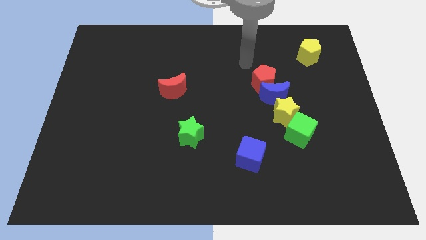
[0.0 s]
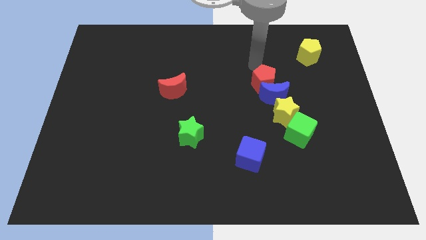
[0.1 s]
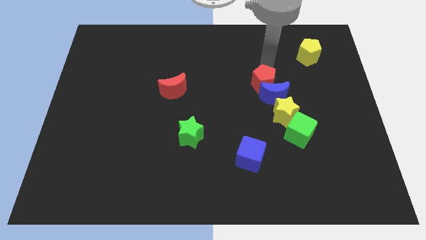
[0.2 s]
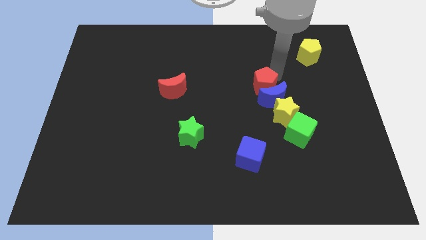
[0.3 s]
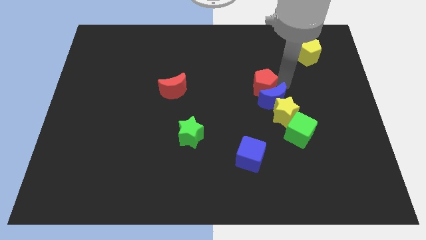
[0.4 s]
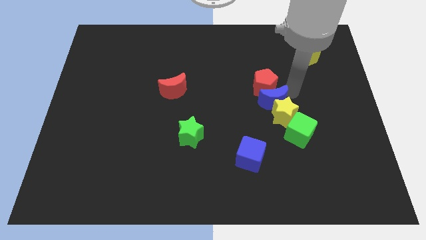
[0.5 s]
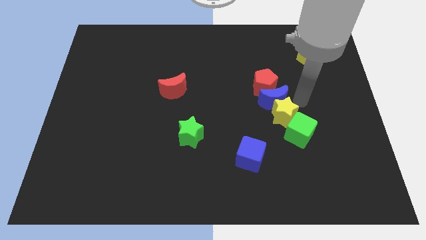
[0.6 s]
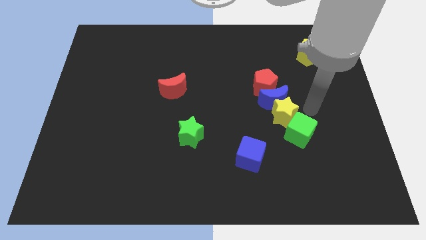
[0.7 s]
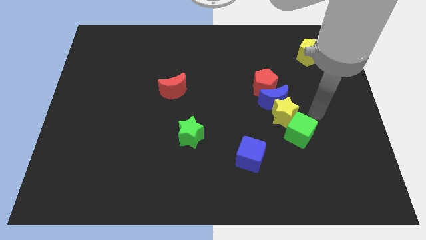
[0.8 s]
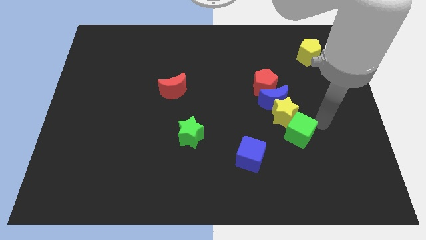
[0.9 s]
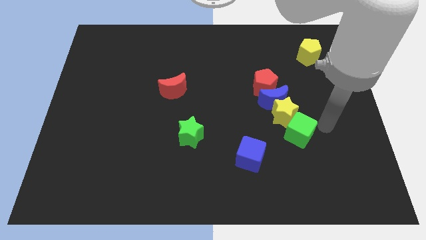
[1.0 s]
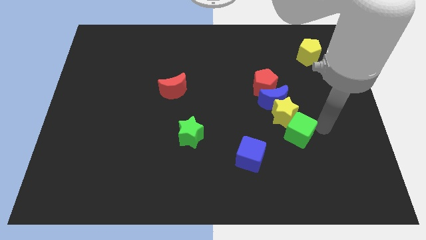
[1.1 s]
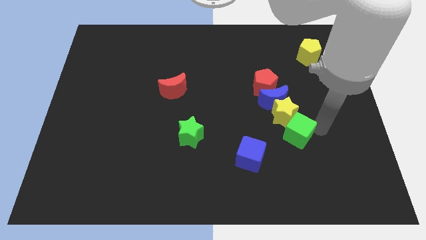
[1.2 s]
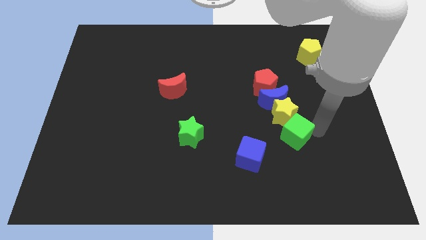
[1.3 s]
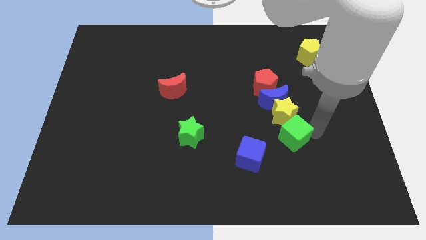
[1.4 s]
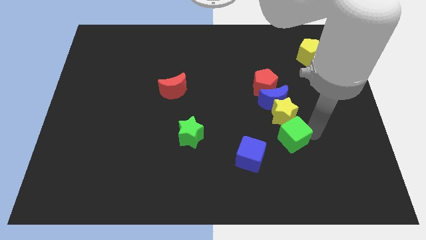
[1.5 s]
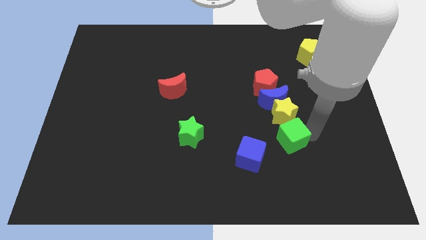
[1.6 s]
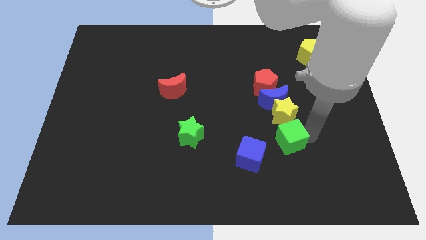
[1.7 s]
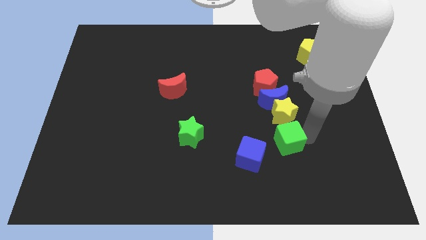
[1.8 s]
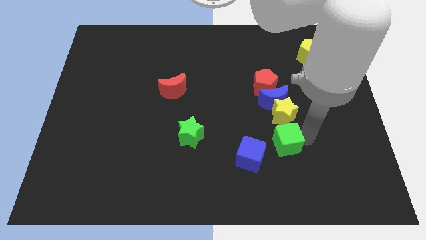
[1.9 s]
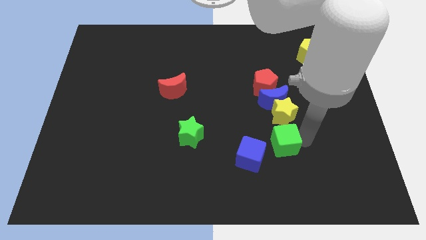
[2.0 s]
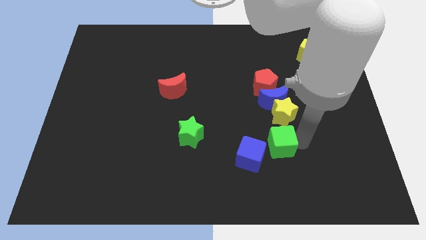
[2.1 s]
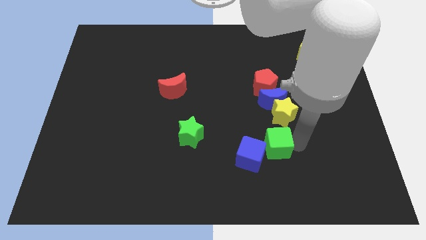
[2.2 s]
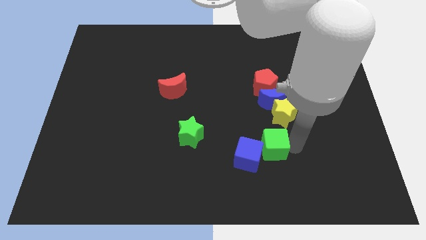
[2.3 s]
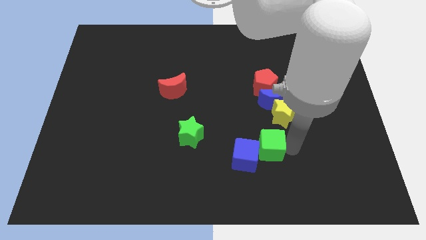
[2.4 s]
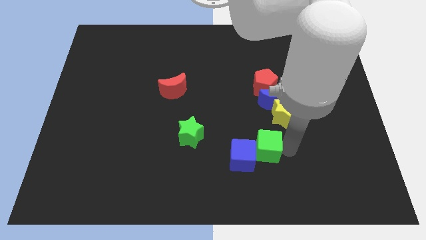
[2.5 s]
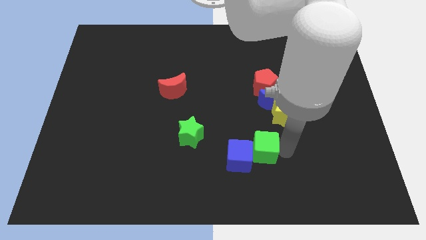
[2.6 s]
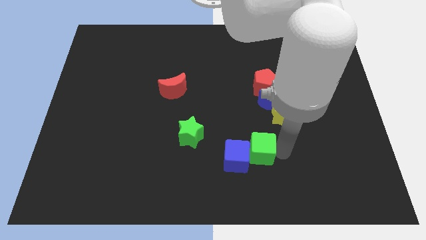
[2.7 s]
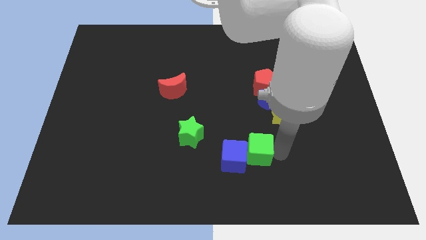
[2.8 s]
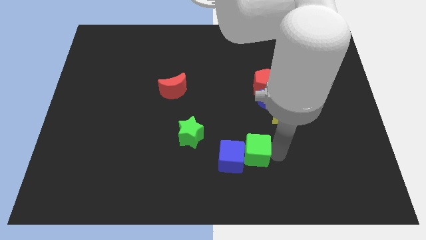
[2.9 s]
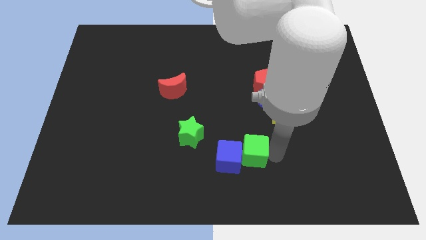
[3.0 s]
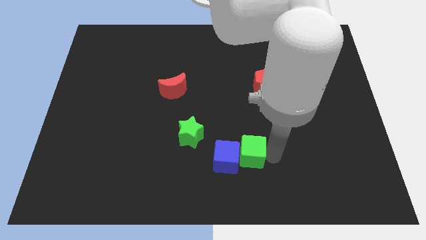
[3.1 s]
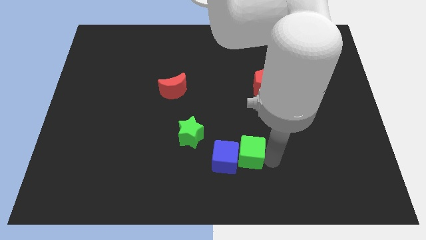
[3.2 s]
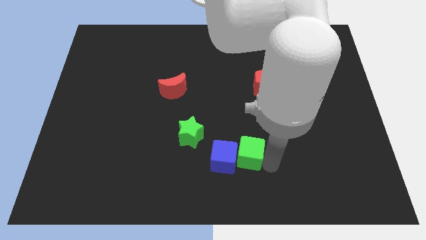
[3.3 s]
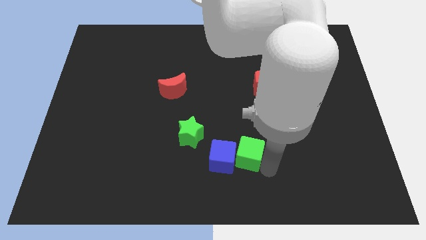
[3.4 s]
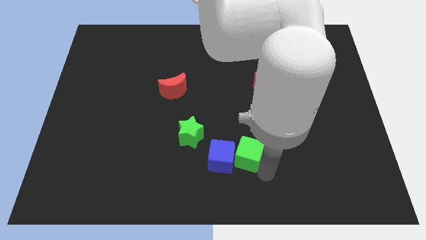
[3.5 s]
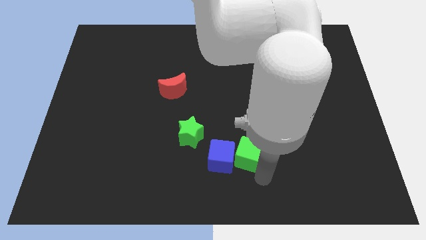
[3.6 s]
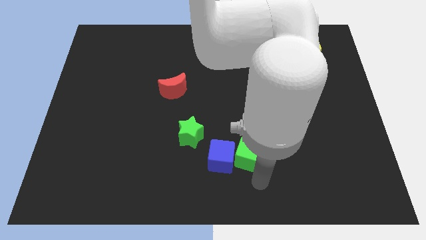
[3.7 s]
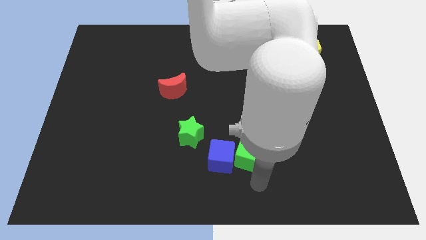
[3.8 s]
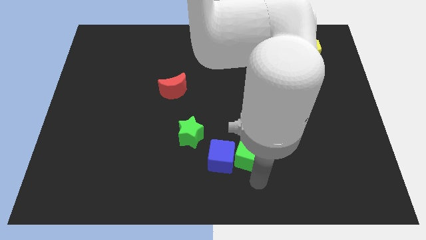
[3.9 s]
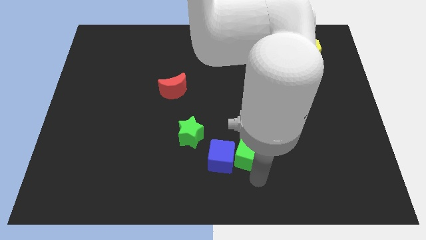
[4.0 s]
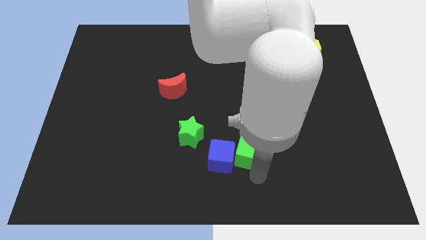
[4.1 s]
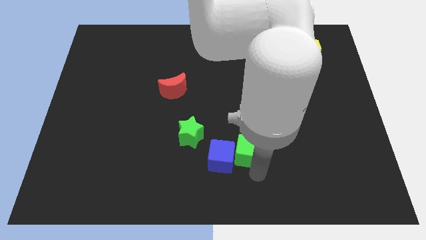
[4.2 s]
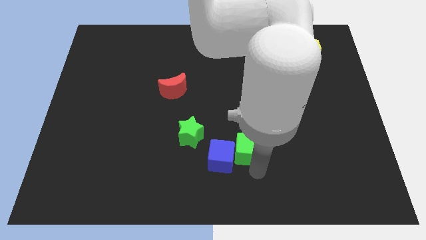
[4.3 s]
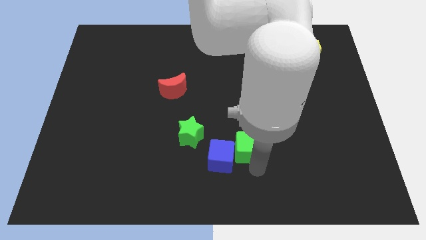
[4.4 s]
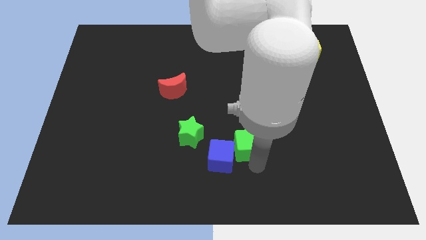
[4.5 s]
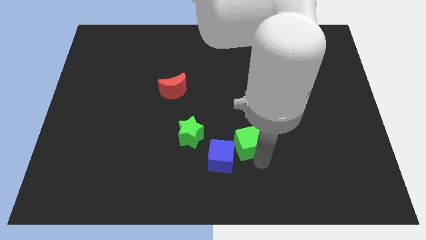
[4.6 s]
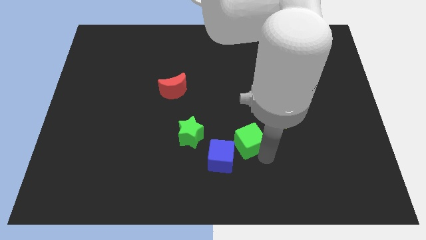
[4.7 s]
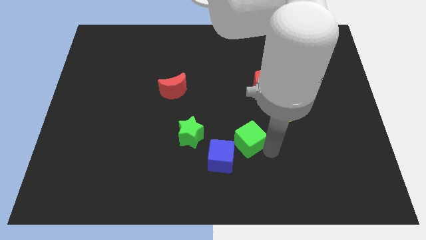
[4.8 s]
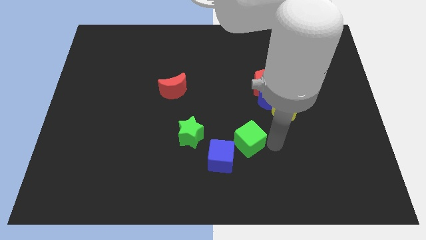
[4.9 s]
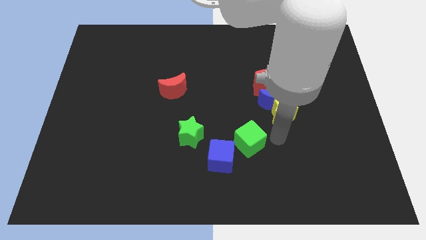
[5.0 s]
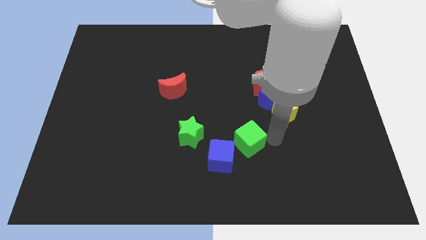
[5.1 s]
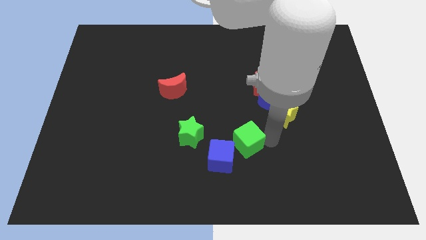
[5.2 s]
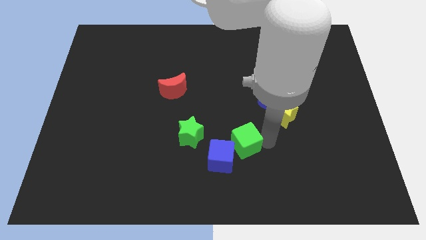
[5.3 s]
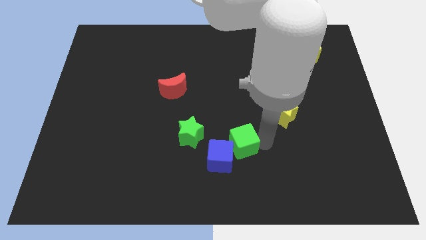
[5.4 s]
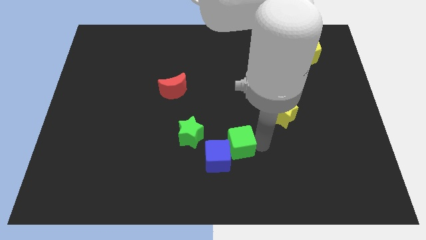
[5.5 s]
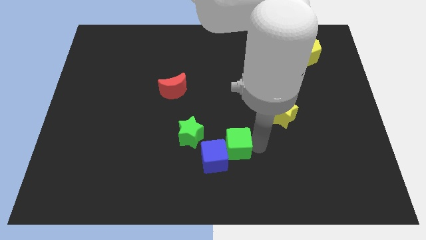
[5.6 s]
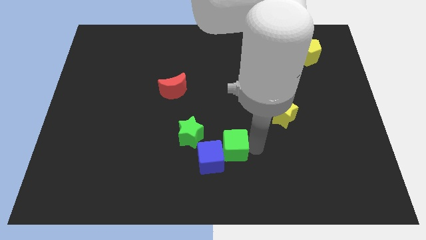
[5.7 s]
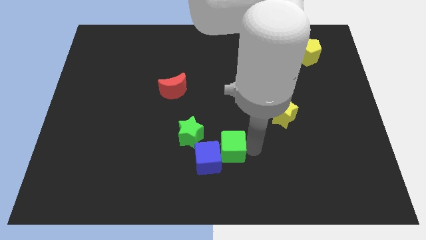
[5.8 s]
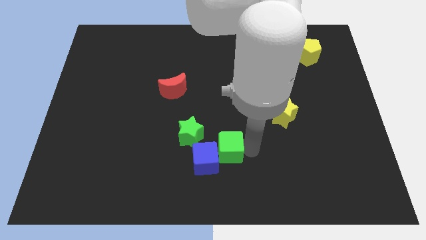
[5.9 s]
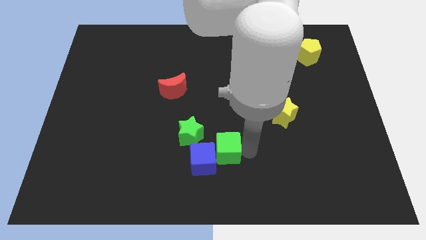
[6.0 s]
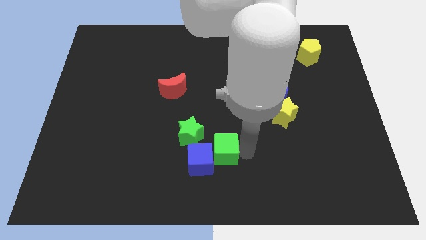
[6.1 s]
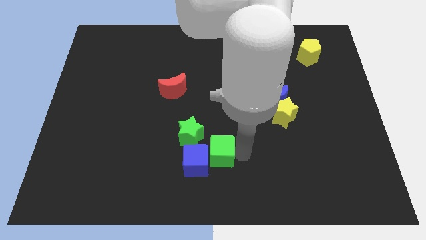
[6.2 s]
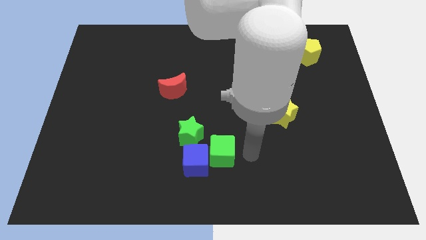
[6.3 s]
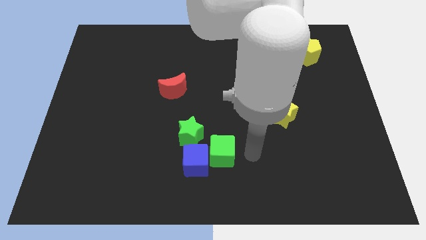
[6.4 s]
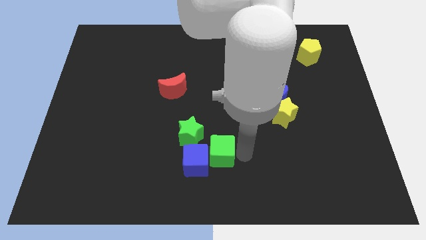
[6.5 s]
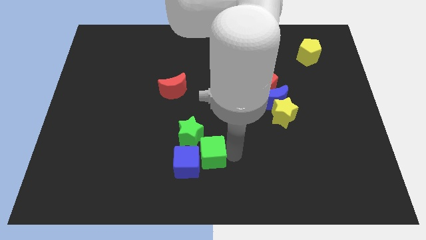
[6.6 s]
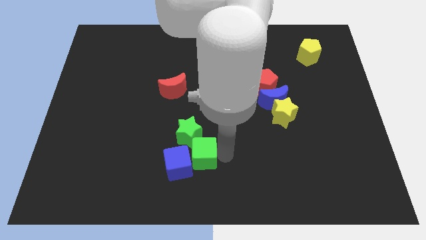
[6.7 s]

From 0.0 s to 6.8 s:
move the green cube left

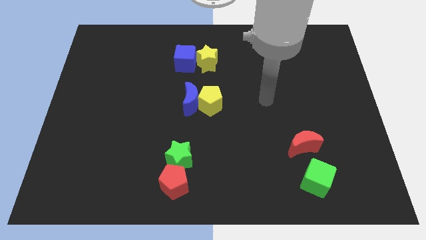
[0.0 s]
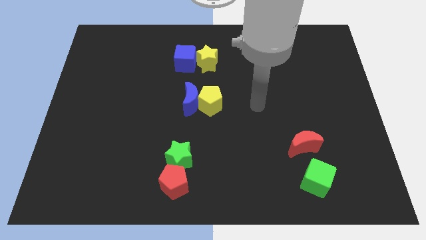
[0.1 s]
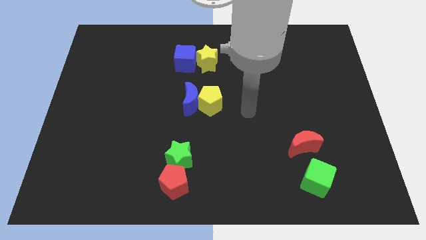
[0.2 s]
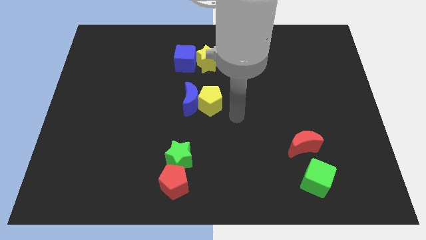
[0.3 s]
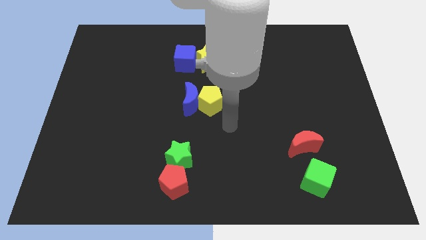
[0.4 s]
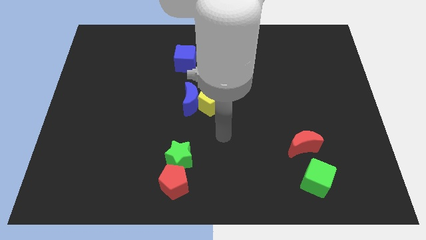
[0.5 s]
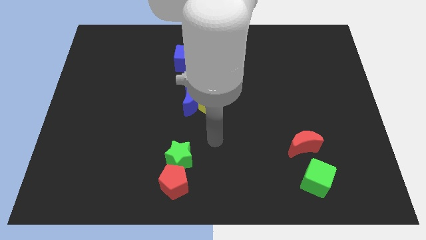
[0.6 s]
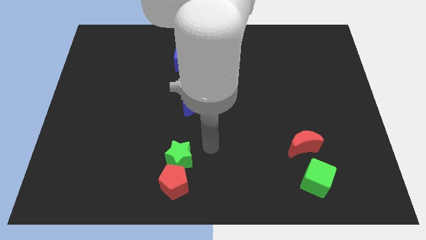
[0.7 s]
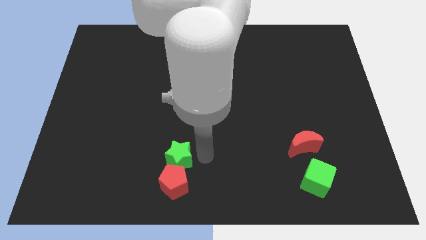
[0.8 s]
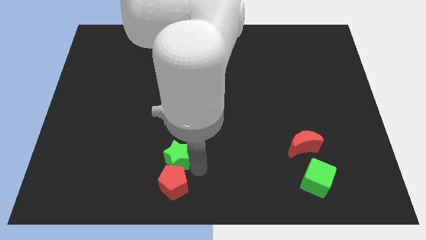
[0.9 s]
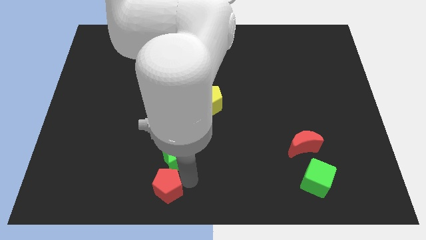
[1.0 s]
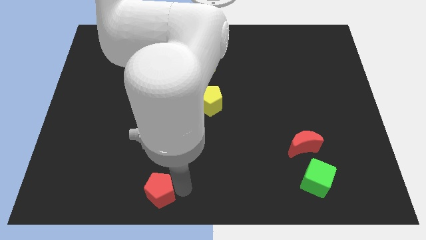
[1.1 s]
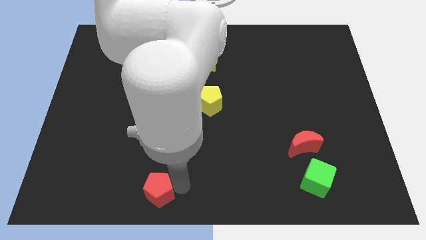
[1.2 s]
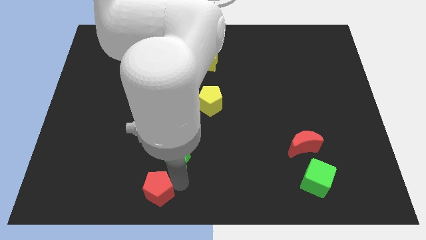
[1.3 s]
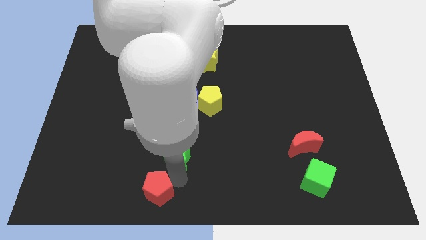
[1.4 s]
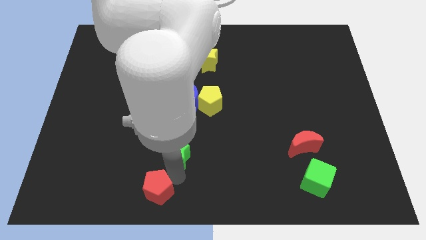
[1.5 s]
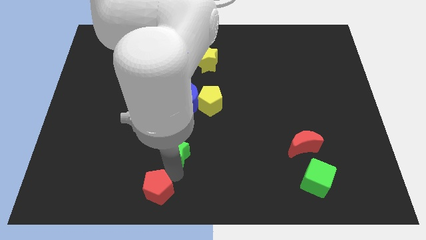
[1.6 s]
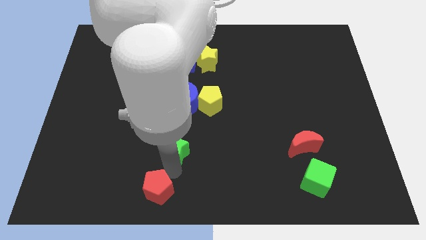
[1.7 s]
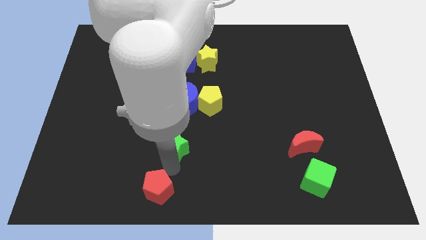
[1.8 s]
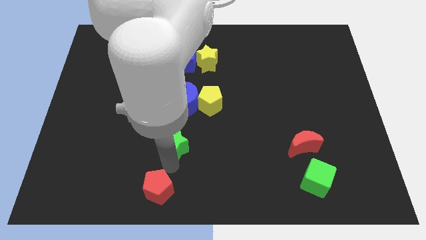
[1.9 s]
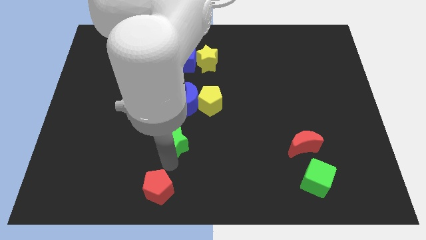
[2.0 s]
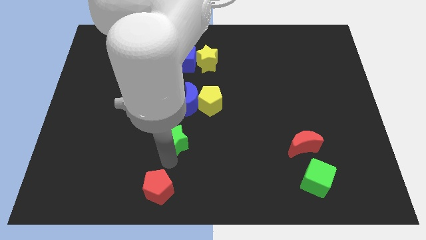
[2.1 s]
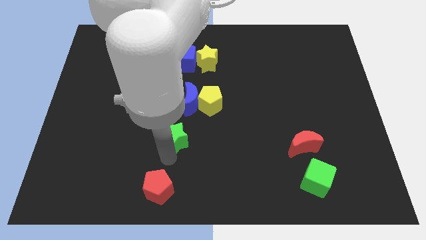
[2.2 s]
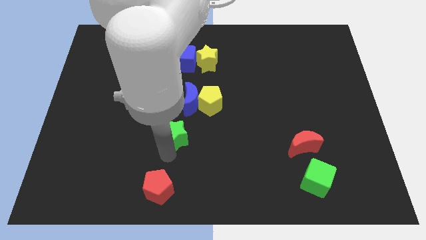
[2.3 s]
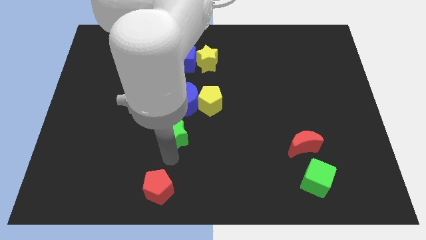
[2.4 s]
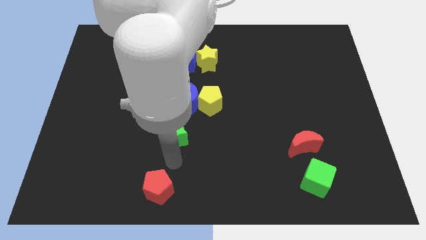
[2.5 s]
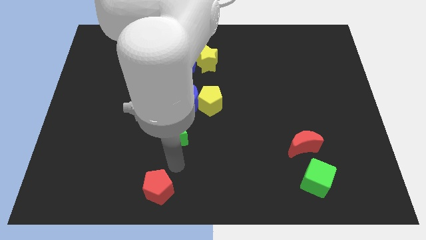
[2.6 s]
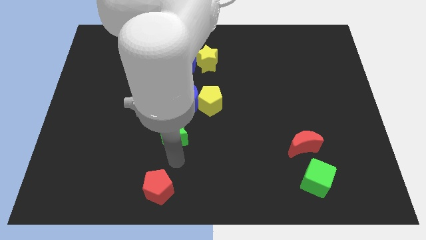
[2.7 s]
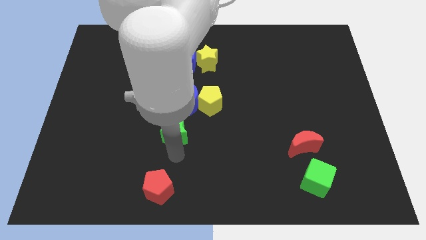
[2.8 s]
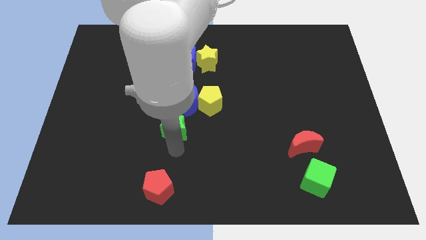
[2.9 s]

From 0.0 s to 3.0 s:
slide the green star up somewhat
